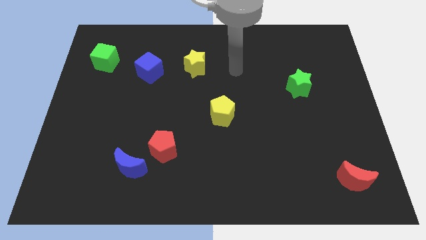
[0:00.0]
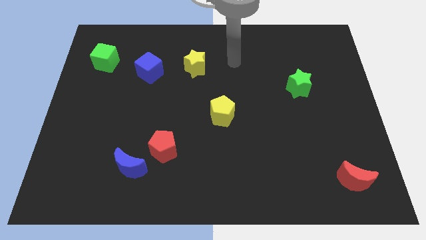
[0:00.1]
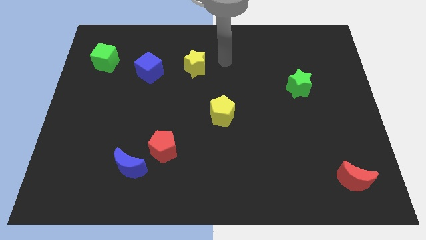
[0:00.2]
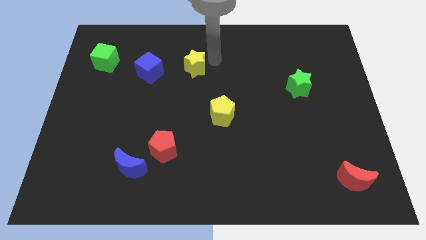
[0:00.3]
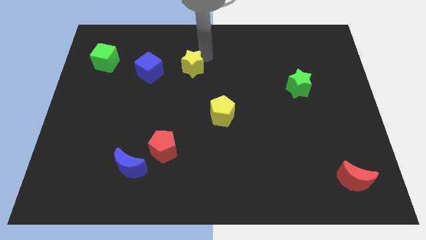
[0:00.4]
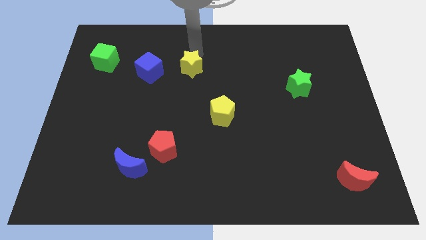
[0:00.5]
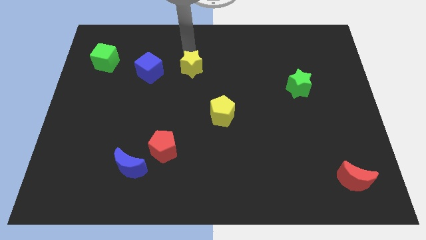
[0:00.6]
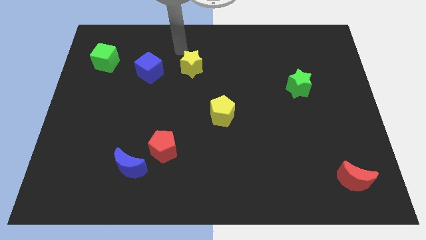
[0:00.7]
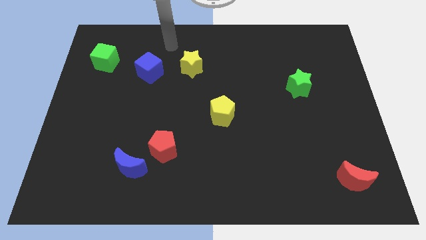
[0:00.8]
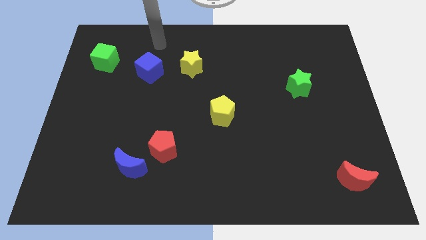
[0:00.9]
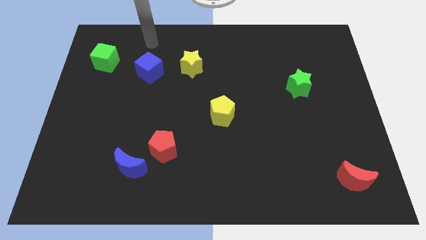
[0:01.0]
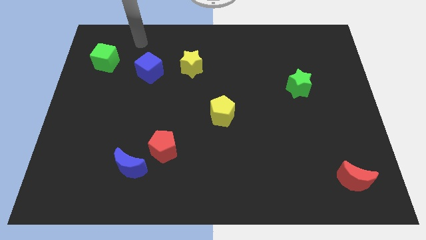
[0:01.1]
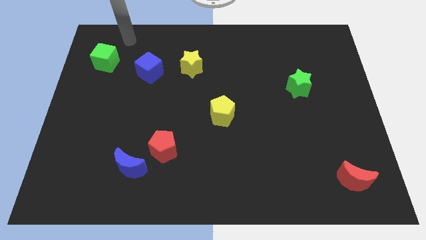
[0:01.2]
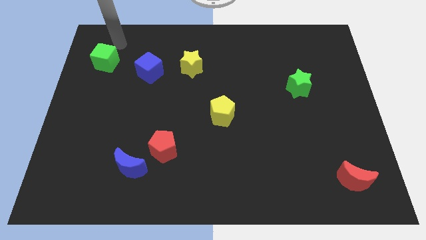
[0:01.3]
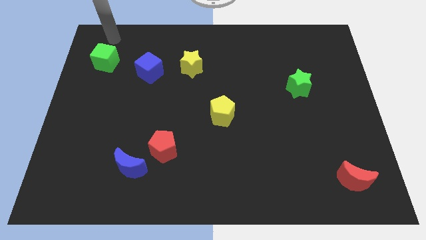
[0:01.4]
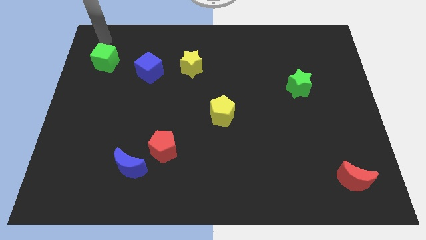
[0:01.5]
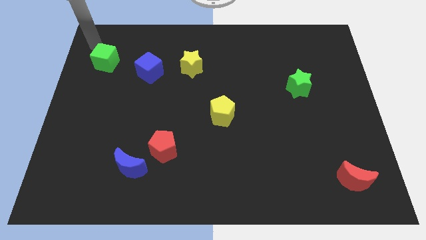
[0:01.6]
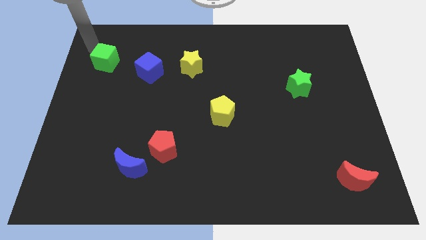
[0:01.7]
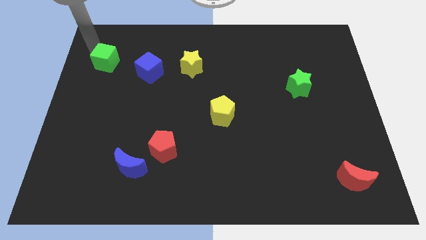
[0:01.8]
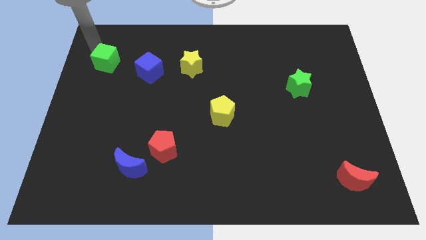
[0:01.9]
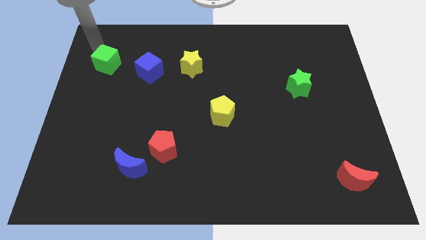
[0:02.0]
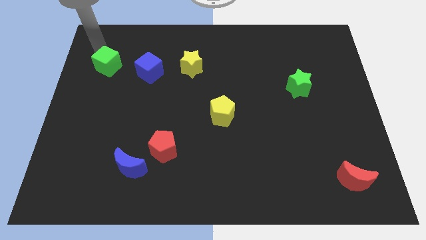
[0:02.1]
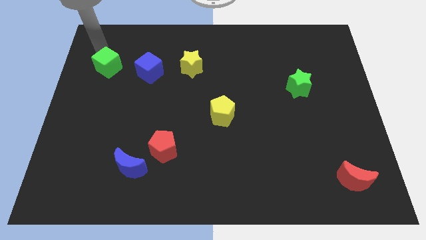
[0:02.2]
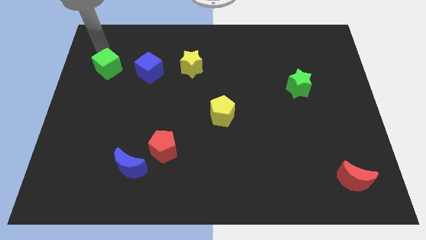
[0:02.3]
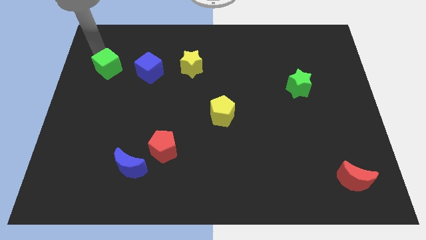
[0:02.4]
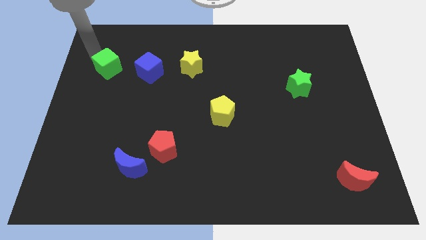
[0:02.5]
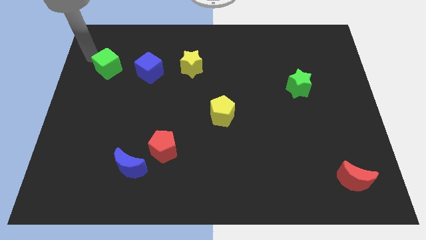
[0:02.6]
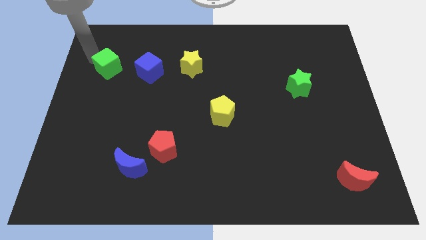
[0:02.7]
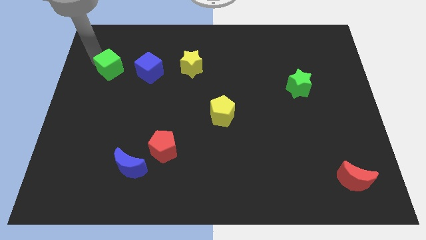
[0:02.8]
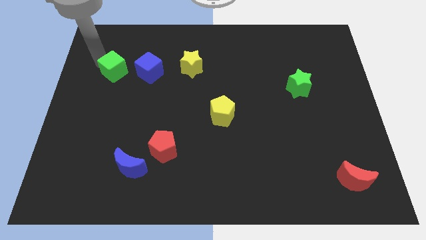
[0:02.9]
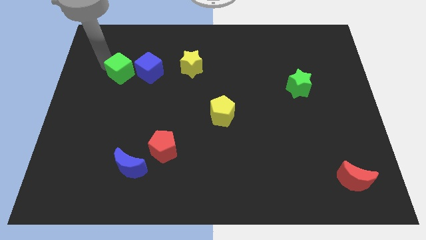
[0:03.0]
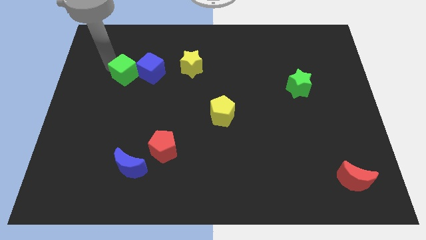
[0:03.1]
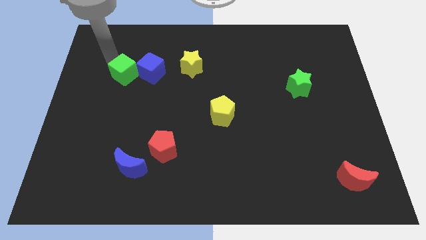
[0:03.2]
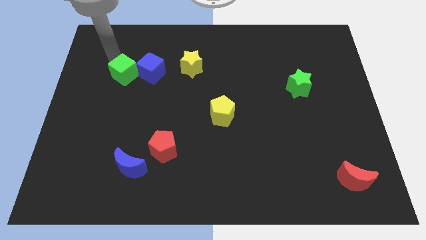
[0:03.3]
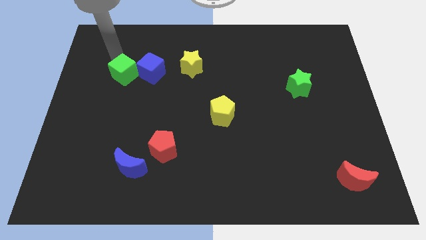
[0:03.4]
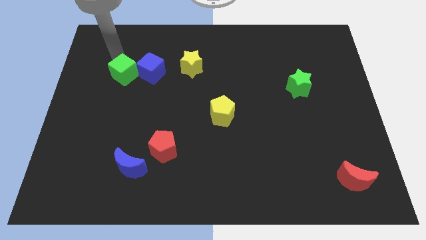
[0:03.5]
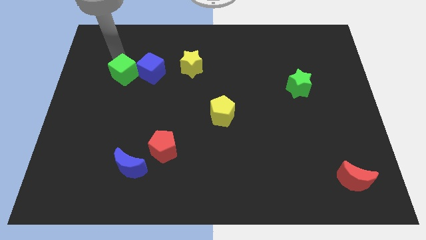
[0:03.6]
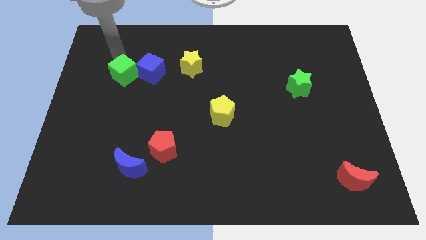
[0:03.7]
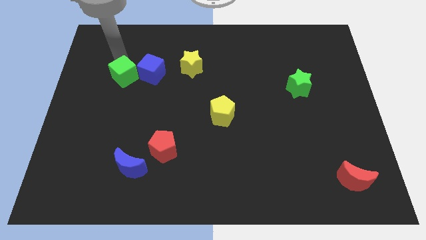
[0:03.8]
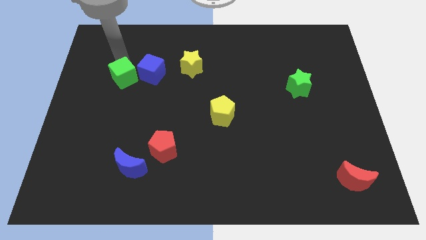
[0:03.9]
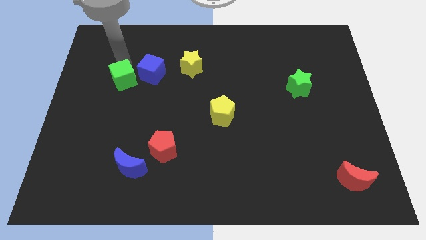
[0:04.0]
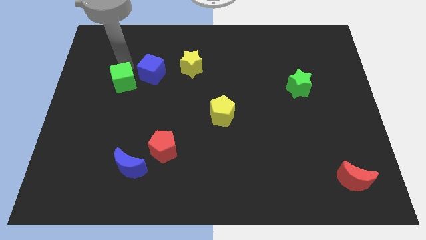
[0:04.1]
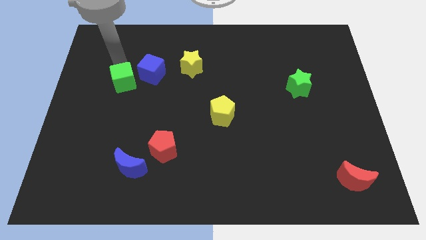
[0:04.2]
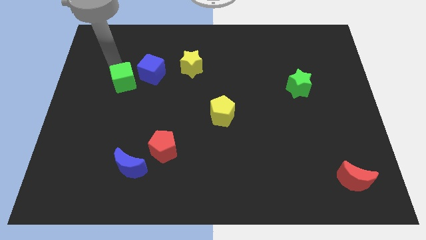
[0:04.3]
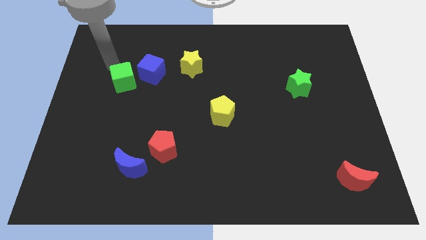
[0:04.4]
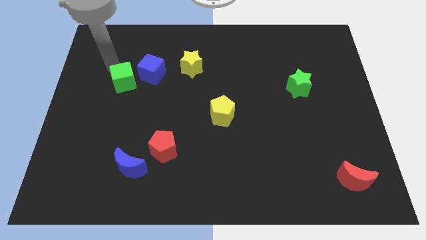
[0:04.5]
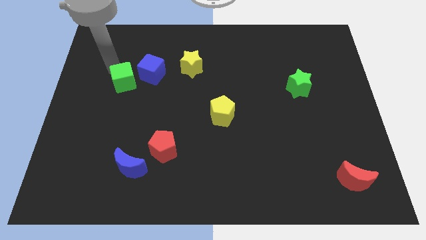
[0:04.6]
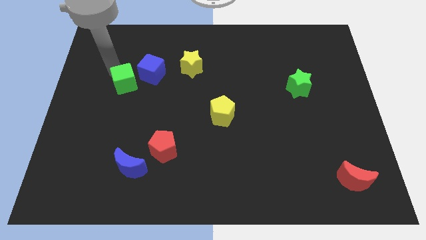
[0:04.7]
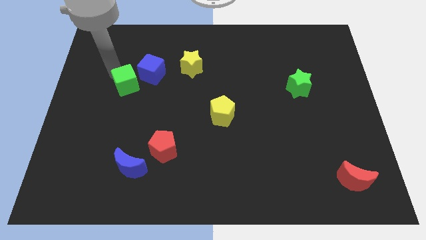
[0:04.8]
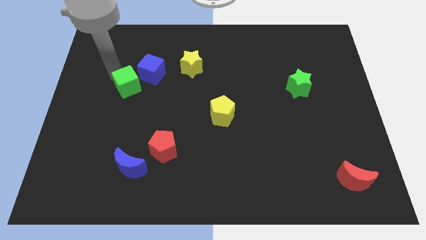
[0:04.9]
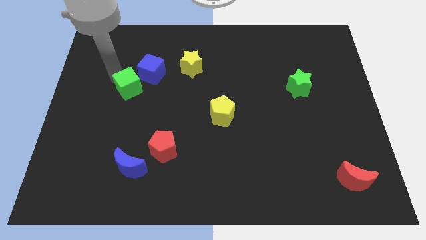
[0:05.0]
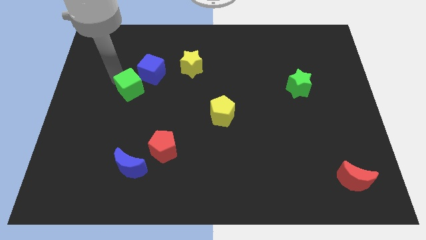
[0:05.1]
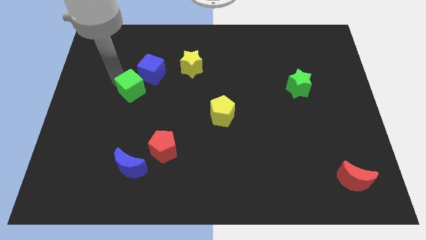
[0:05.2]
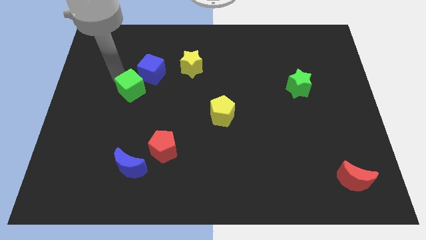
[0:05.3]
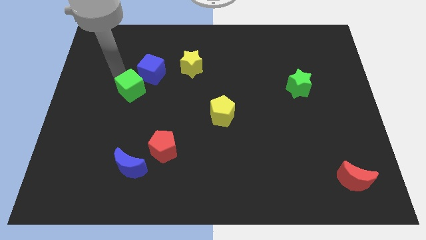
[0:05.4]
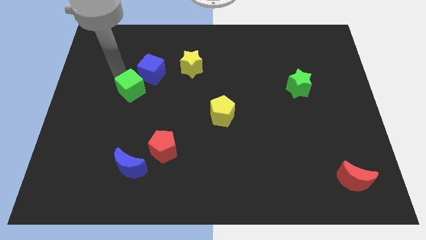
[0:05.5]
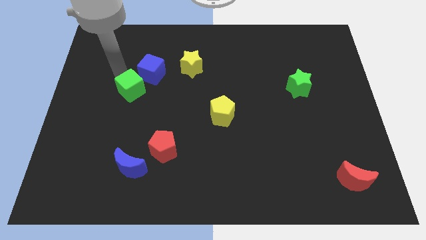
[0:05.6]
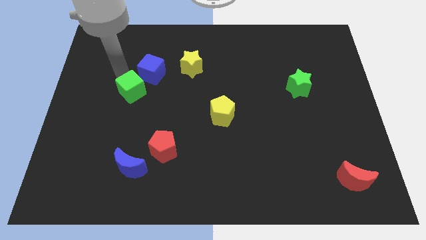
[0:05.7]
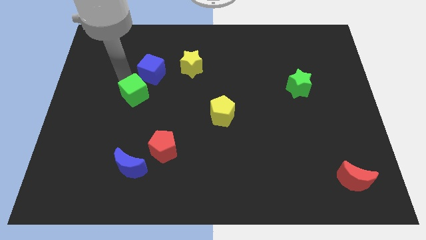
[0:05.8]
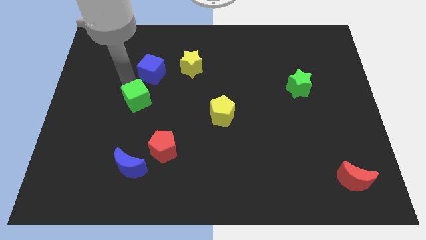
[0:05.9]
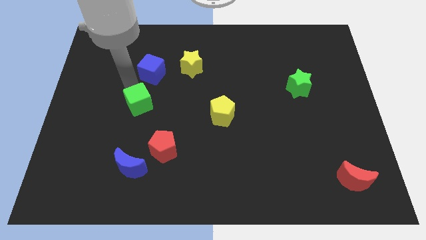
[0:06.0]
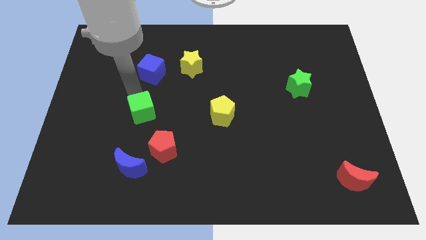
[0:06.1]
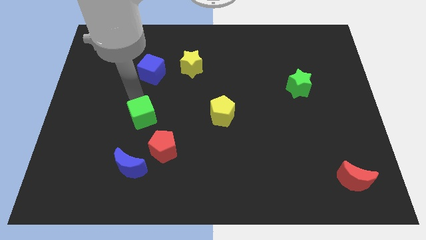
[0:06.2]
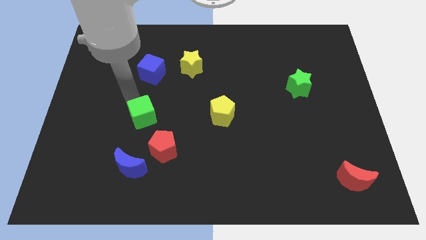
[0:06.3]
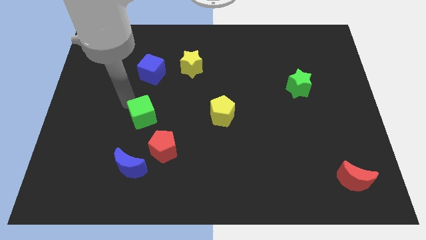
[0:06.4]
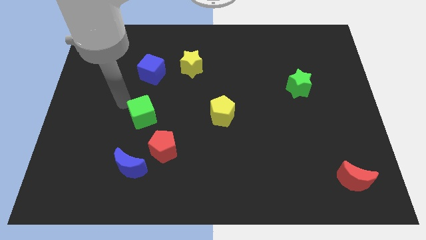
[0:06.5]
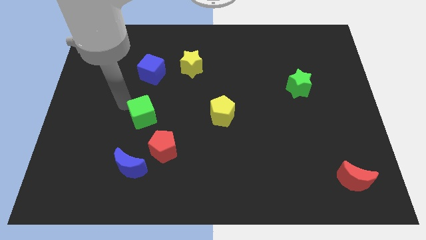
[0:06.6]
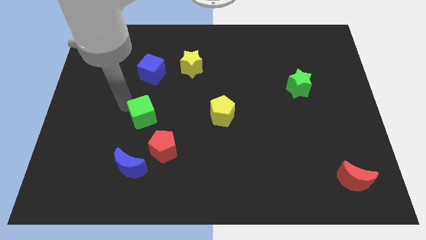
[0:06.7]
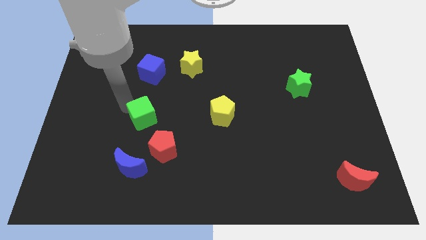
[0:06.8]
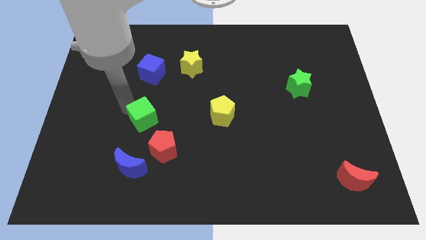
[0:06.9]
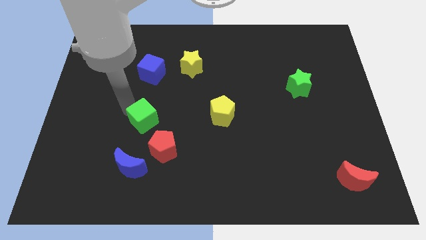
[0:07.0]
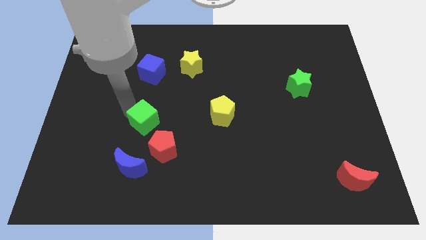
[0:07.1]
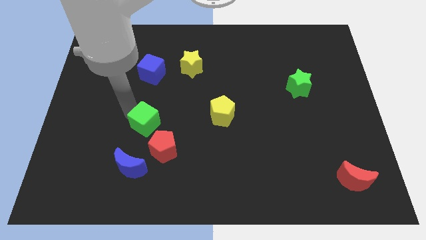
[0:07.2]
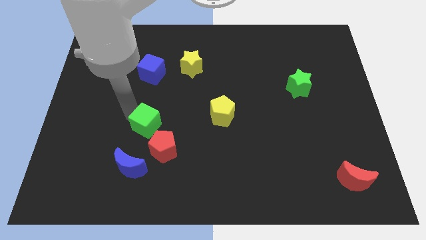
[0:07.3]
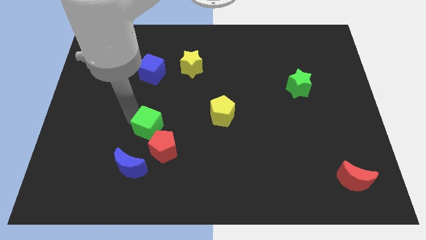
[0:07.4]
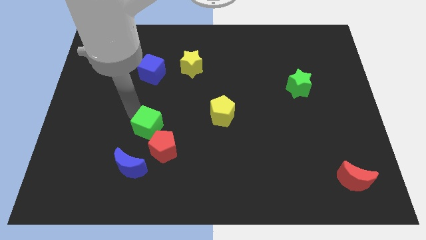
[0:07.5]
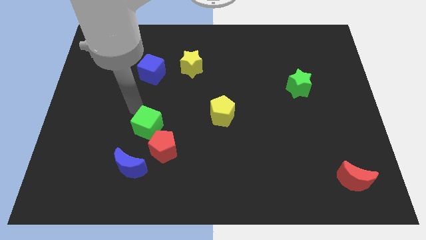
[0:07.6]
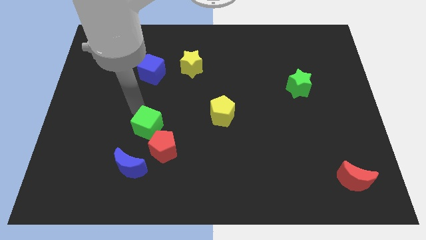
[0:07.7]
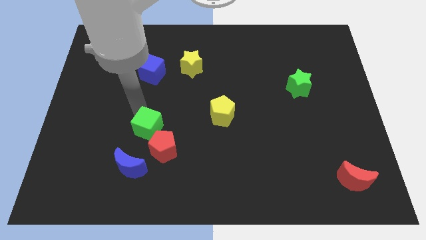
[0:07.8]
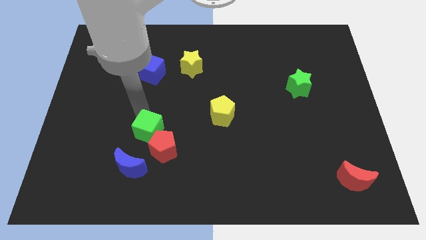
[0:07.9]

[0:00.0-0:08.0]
move the green cube to the red pentagon
